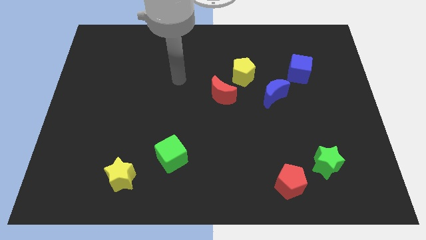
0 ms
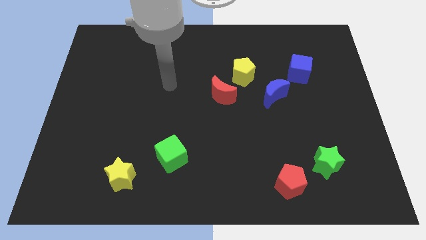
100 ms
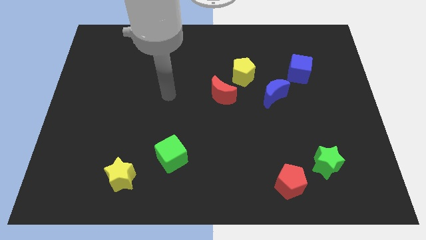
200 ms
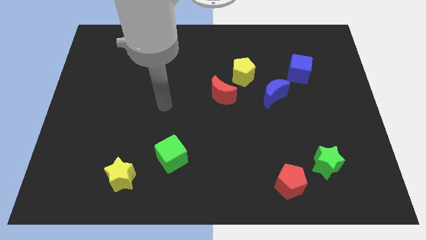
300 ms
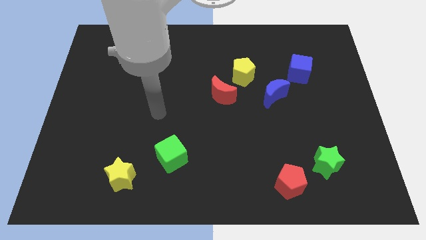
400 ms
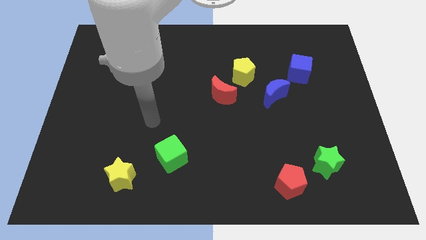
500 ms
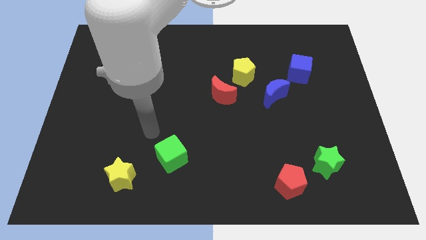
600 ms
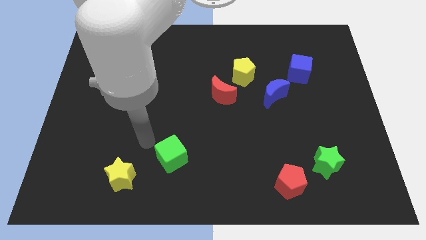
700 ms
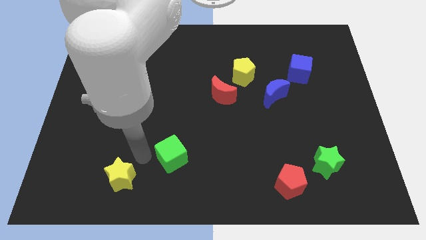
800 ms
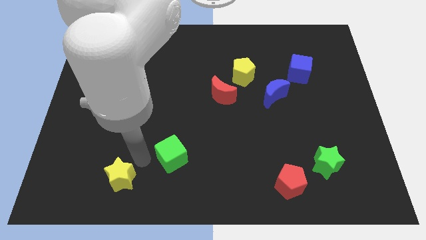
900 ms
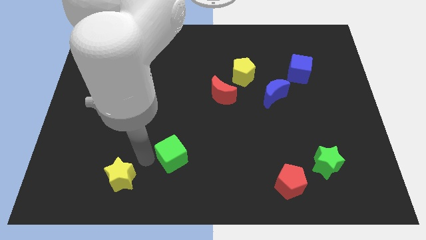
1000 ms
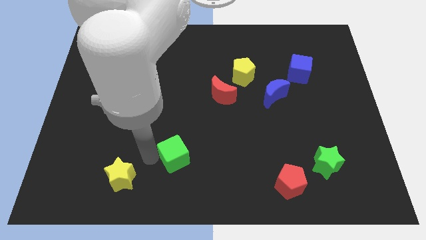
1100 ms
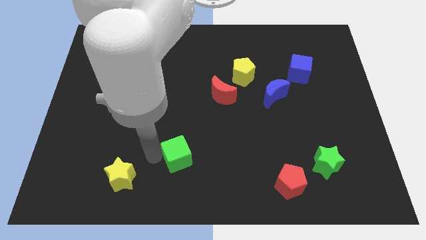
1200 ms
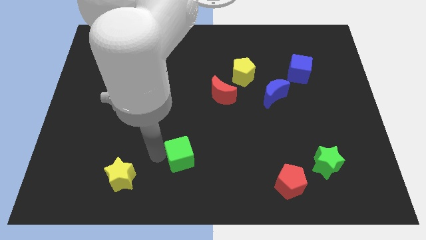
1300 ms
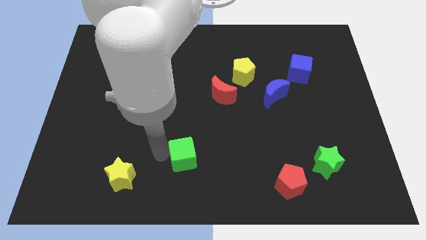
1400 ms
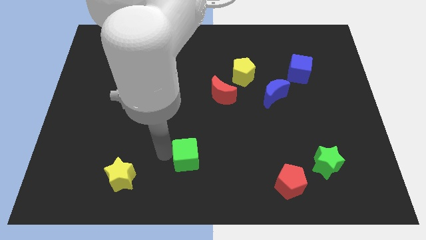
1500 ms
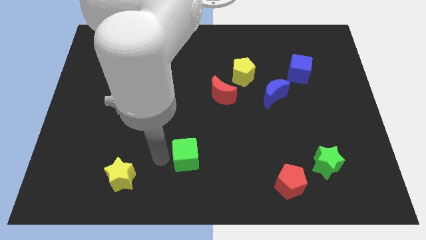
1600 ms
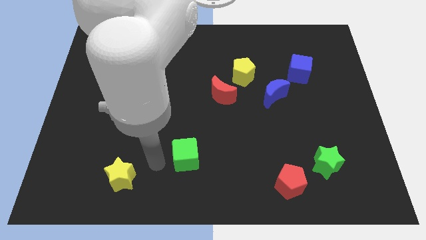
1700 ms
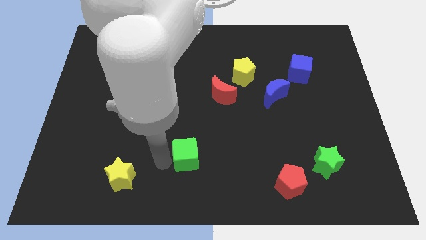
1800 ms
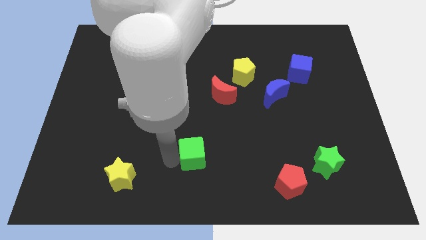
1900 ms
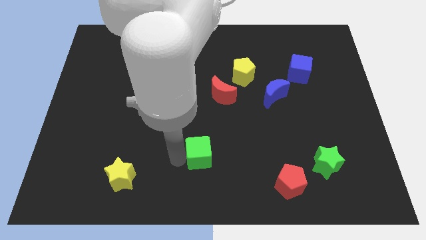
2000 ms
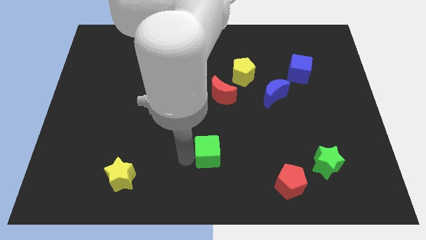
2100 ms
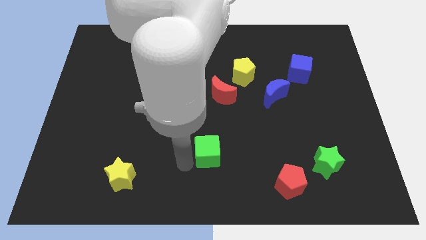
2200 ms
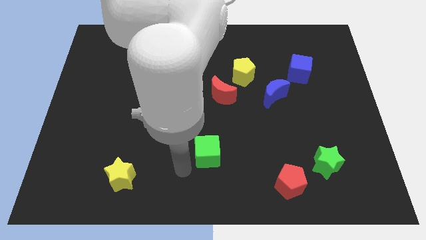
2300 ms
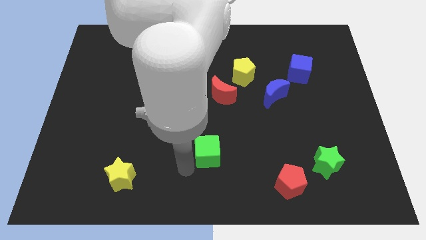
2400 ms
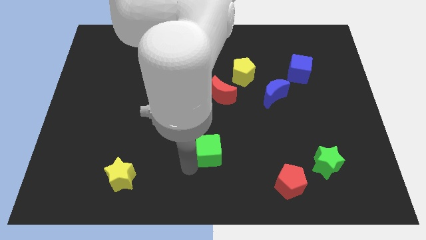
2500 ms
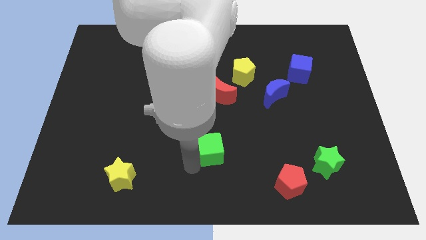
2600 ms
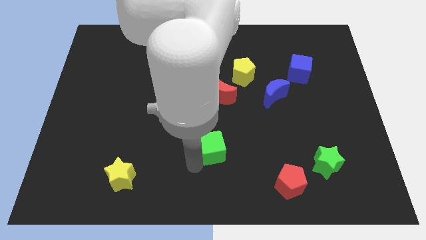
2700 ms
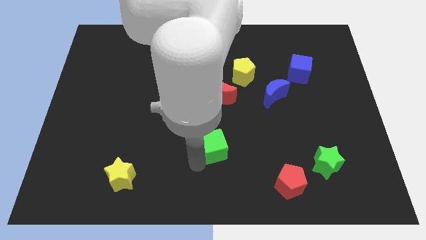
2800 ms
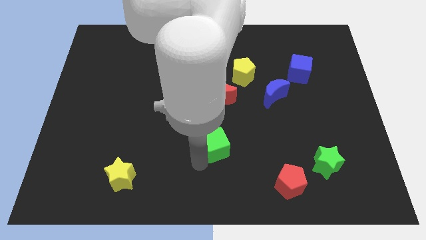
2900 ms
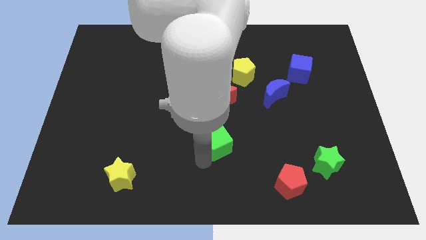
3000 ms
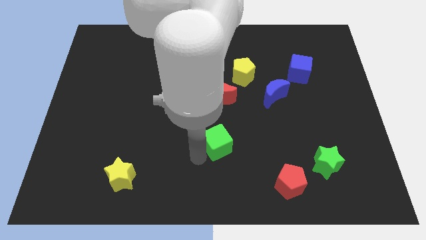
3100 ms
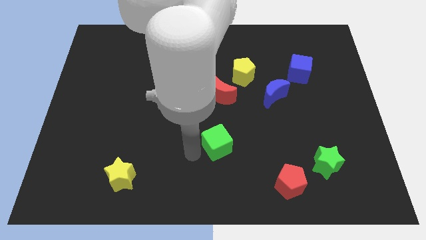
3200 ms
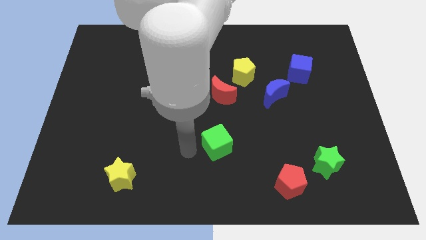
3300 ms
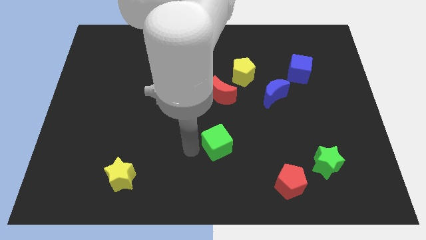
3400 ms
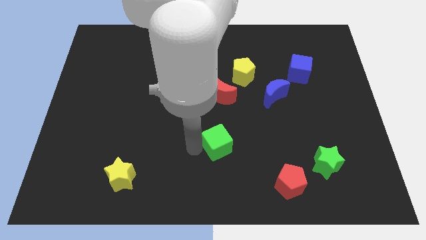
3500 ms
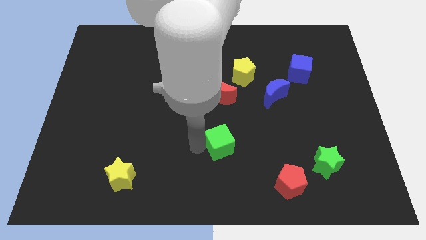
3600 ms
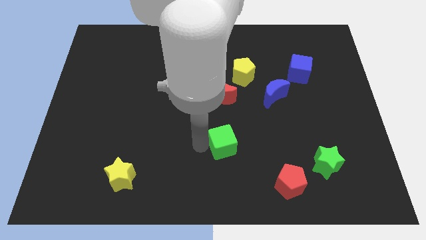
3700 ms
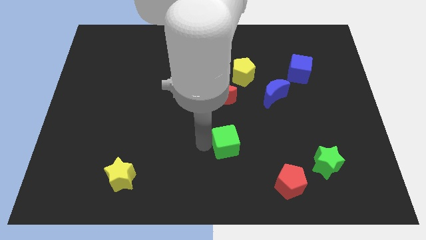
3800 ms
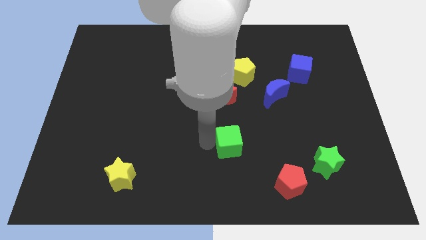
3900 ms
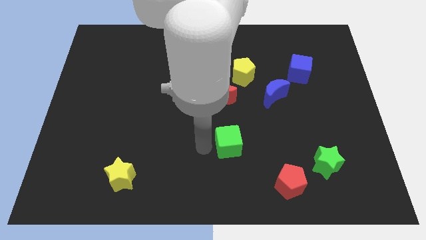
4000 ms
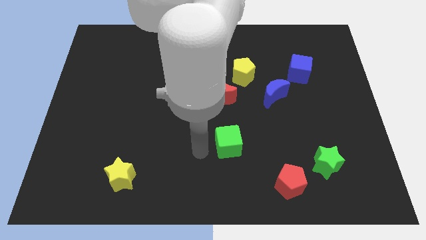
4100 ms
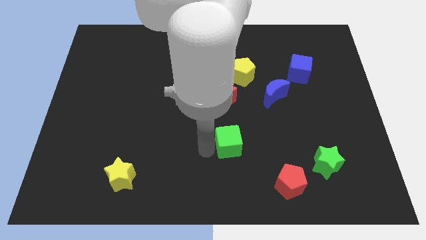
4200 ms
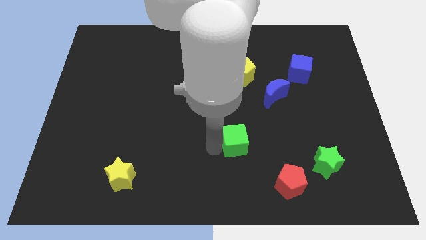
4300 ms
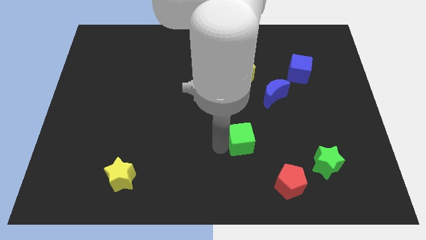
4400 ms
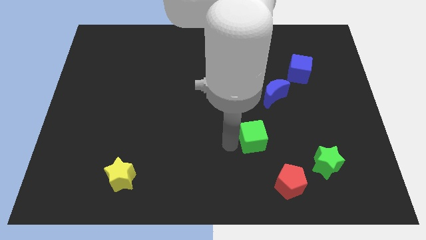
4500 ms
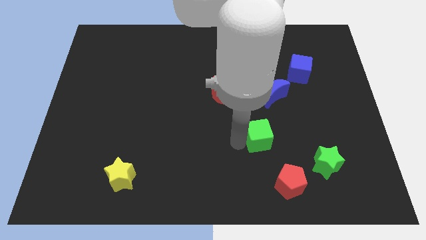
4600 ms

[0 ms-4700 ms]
put the green cube to the bottom of the blue moon

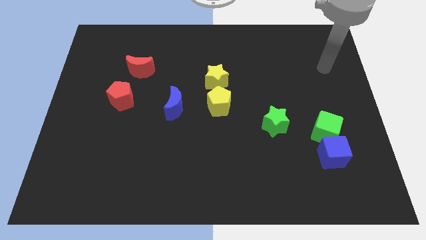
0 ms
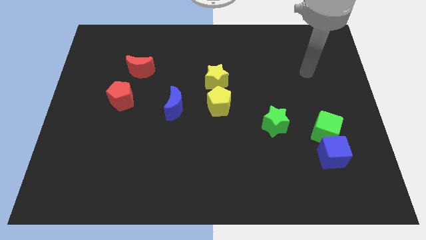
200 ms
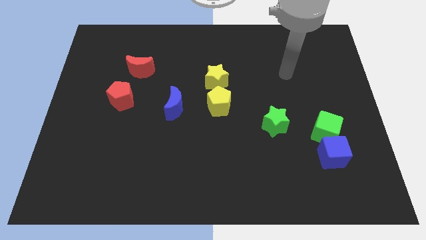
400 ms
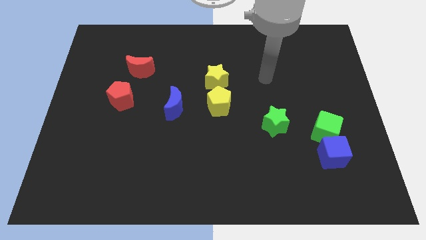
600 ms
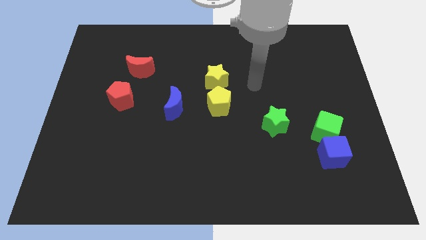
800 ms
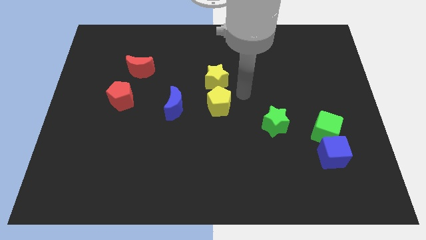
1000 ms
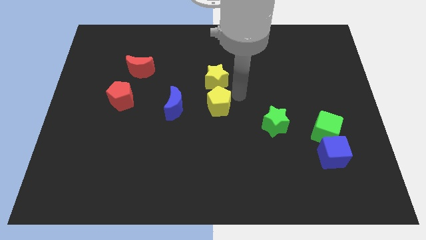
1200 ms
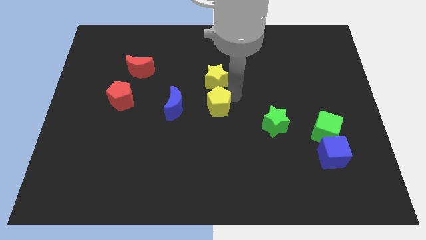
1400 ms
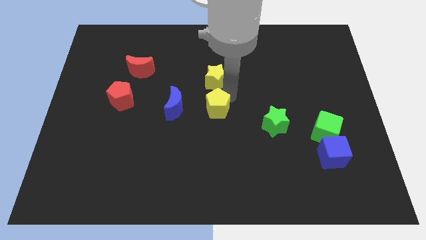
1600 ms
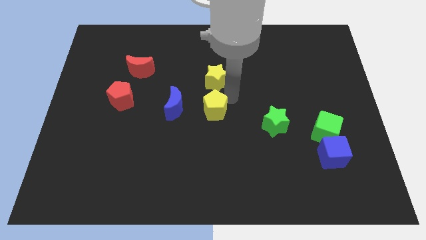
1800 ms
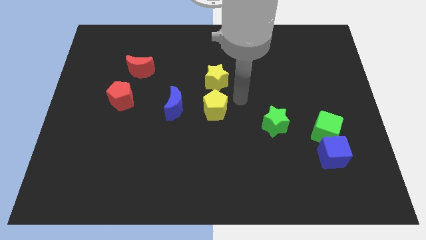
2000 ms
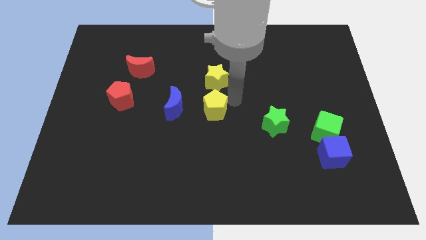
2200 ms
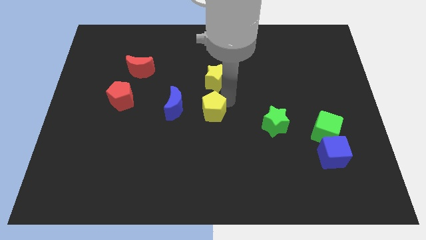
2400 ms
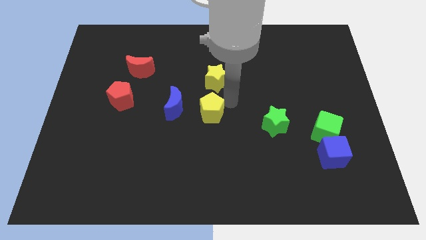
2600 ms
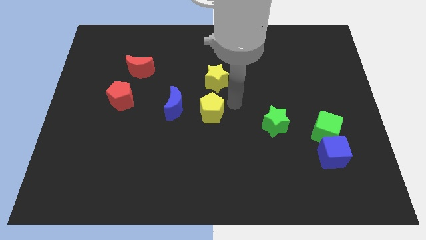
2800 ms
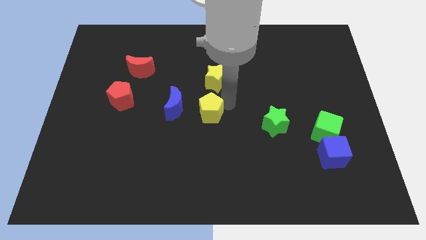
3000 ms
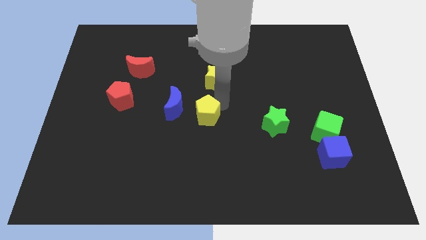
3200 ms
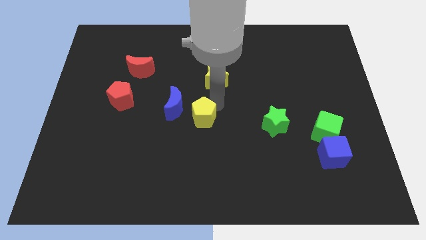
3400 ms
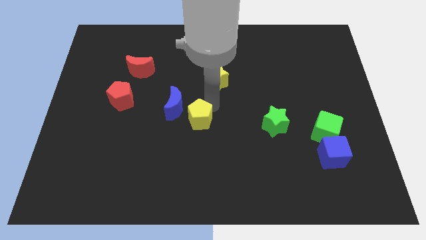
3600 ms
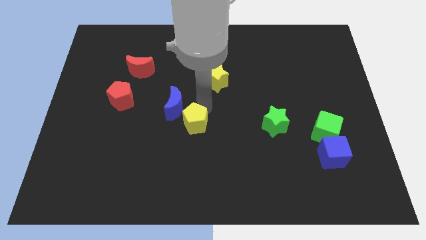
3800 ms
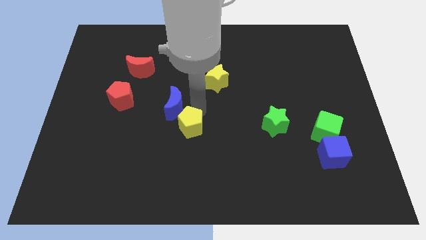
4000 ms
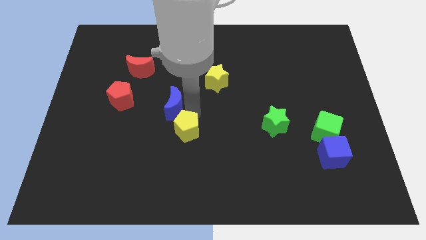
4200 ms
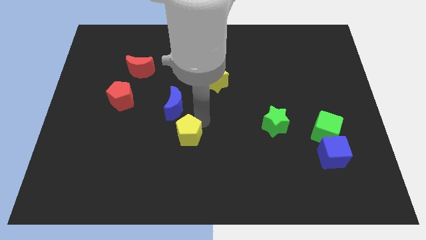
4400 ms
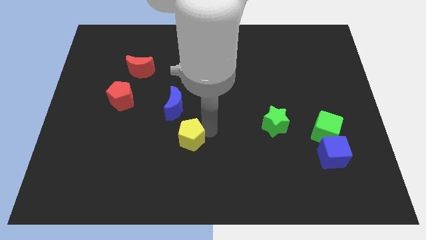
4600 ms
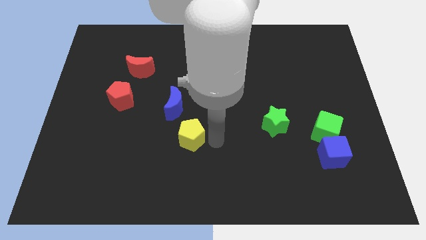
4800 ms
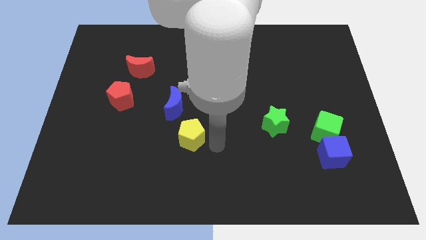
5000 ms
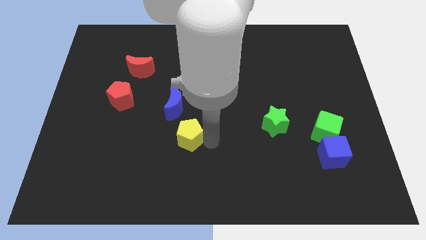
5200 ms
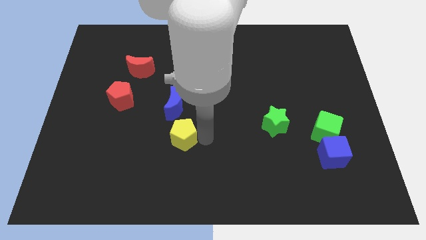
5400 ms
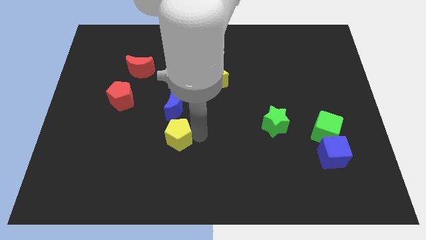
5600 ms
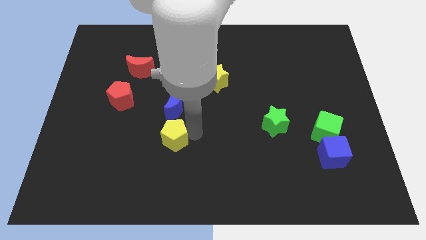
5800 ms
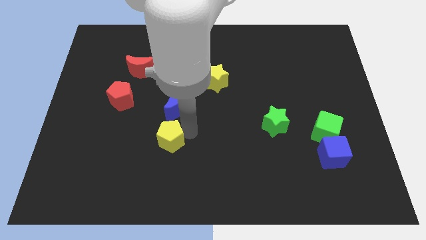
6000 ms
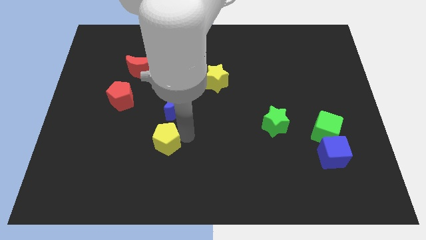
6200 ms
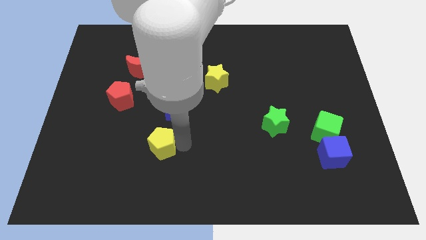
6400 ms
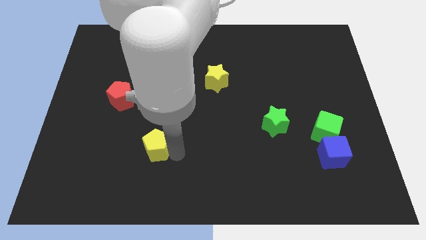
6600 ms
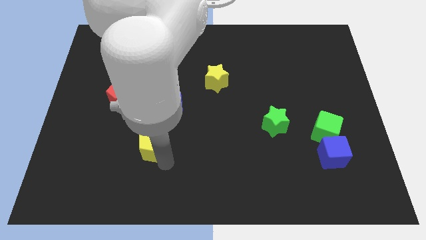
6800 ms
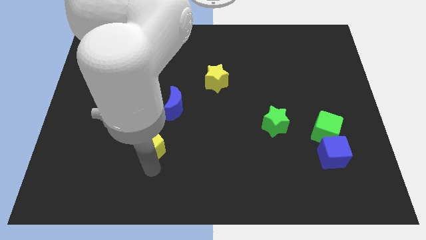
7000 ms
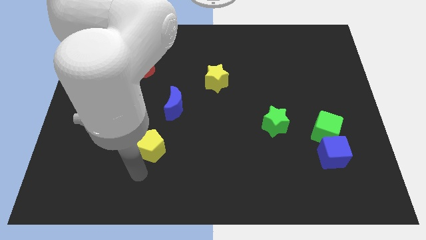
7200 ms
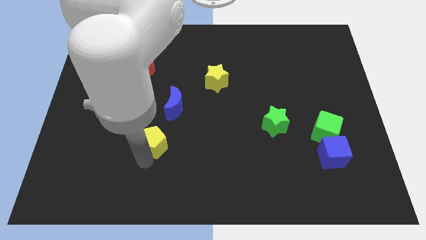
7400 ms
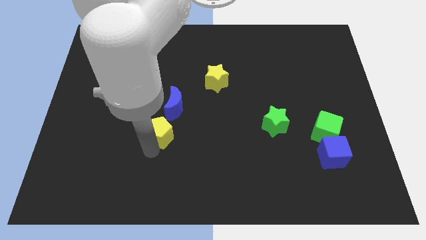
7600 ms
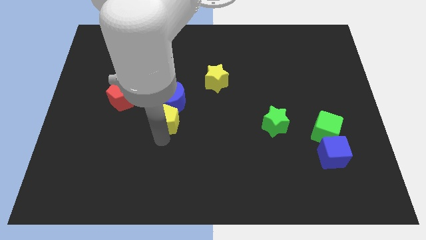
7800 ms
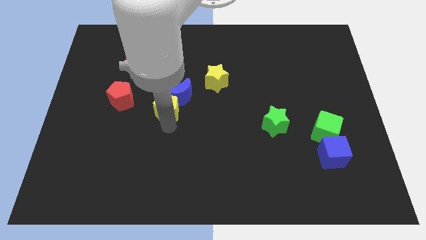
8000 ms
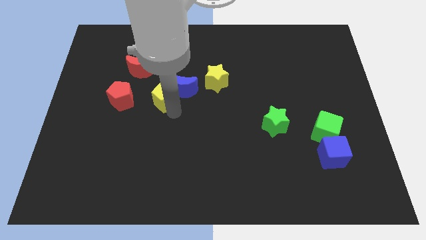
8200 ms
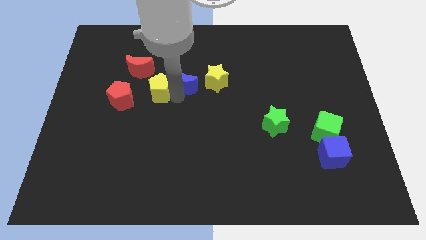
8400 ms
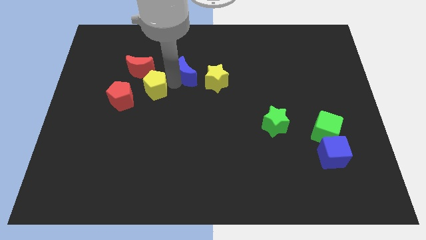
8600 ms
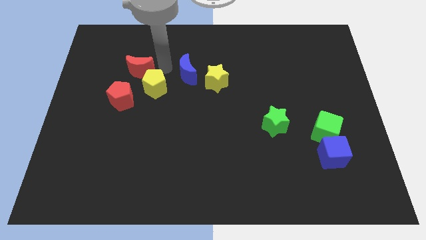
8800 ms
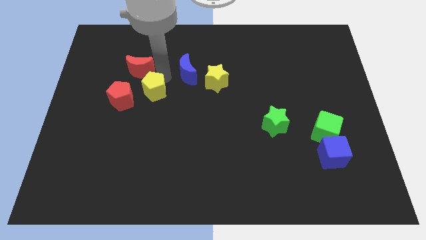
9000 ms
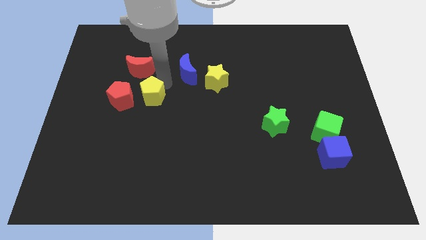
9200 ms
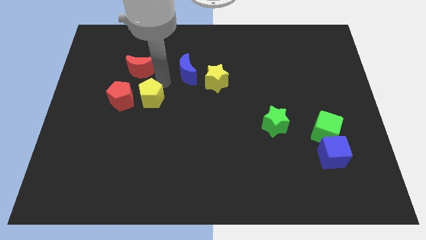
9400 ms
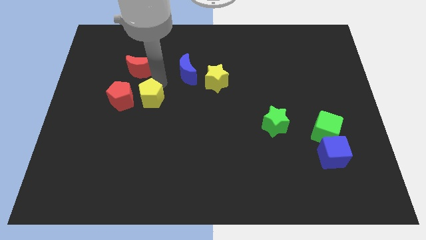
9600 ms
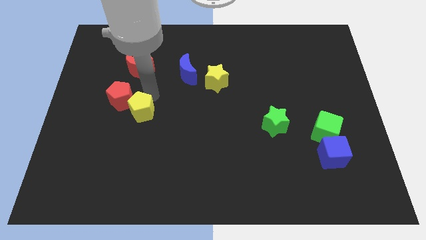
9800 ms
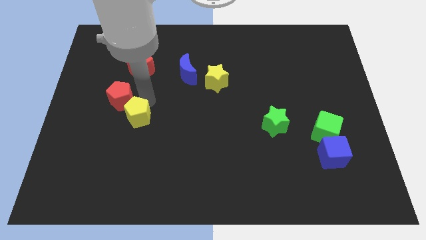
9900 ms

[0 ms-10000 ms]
push the yellow pentagon to the bottom side of the red pentagon
